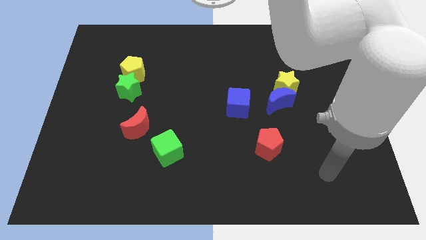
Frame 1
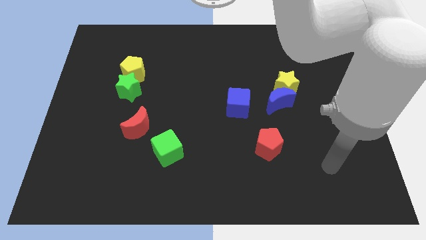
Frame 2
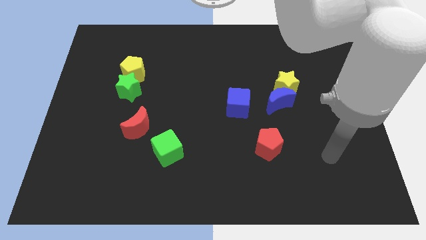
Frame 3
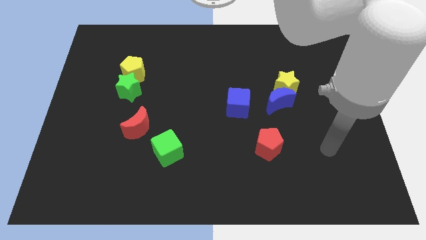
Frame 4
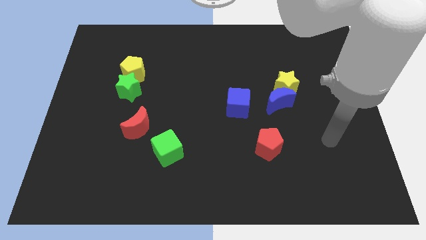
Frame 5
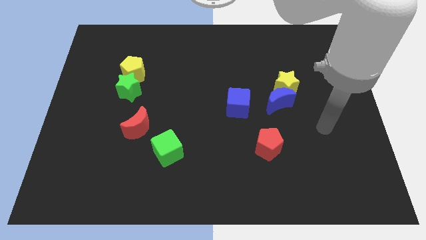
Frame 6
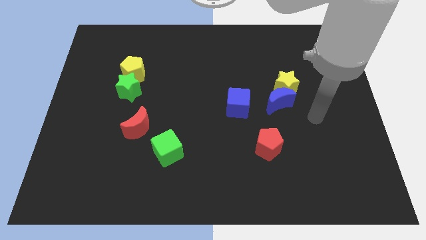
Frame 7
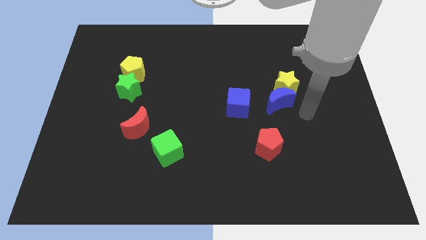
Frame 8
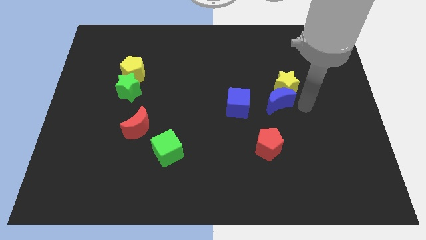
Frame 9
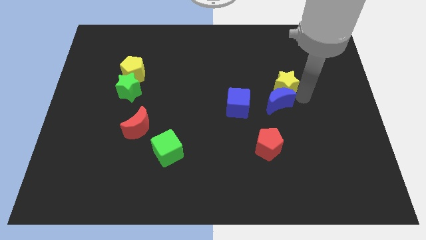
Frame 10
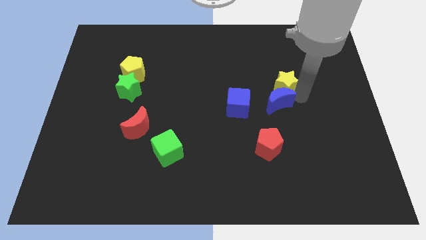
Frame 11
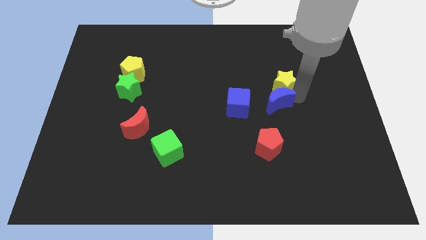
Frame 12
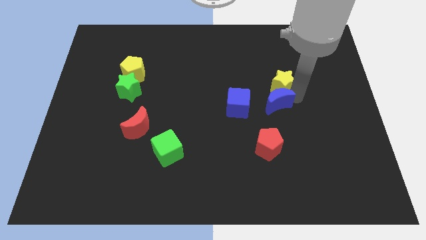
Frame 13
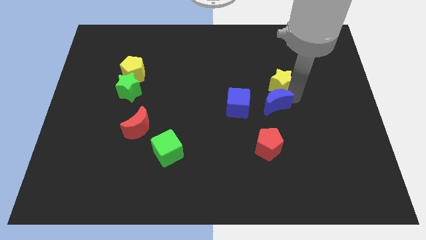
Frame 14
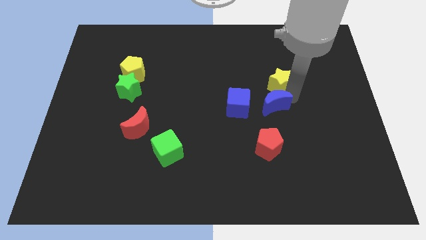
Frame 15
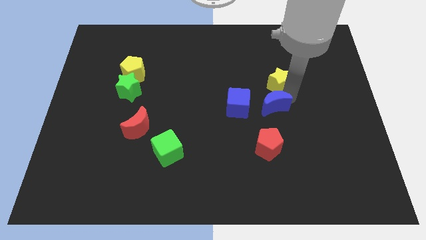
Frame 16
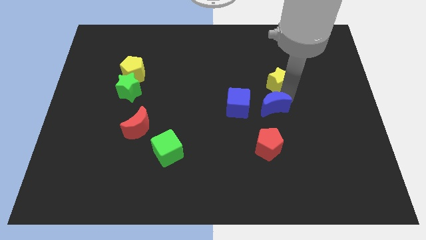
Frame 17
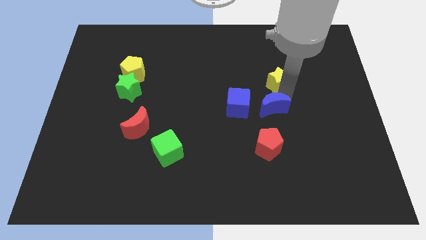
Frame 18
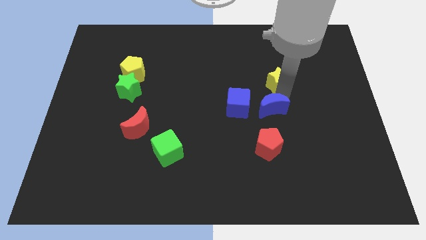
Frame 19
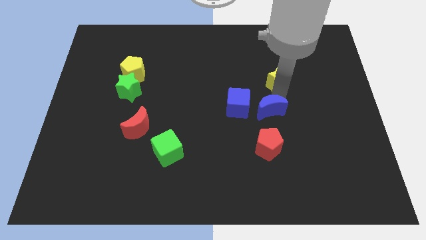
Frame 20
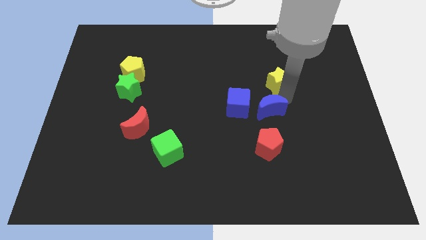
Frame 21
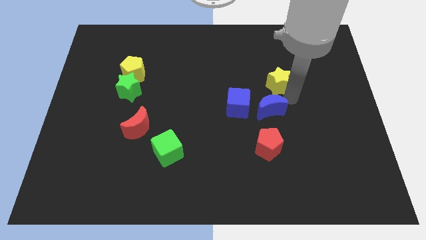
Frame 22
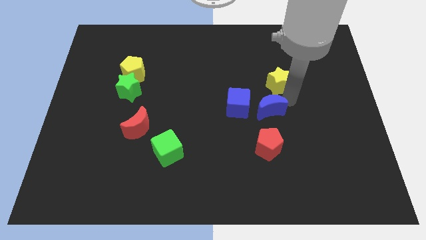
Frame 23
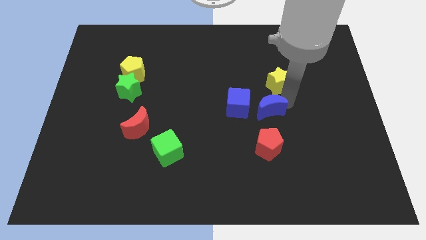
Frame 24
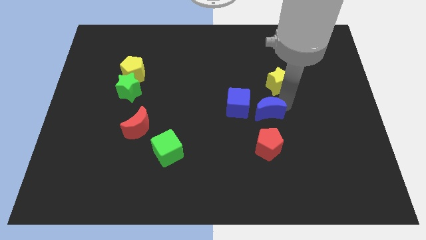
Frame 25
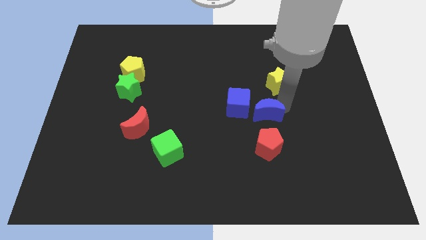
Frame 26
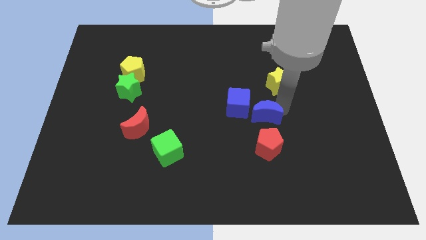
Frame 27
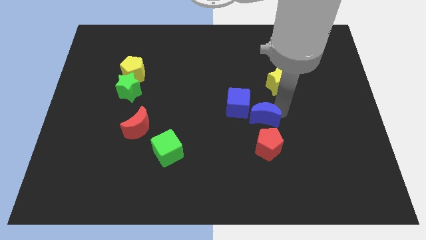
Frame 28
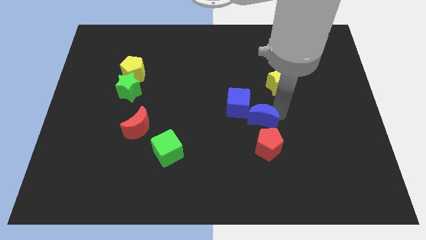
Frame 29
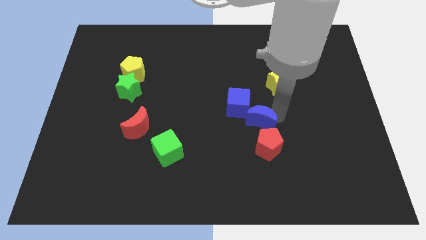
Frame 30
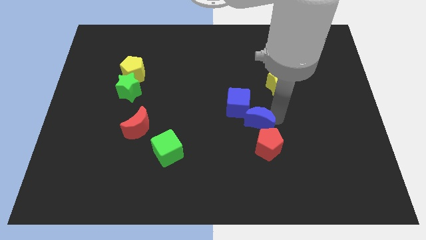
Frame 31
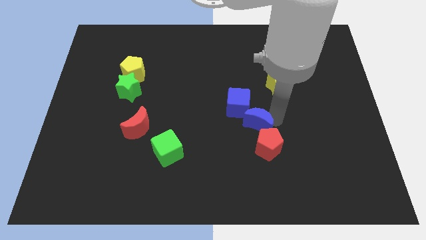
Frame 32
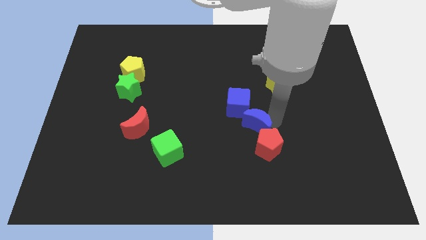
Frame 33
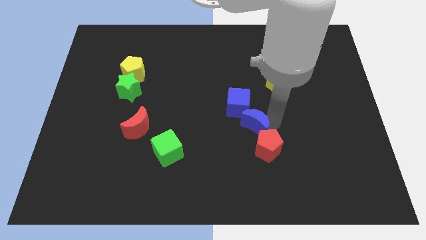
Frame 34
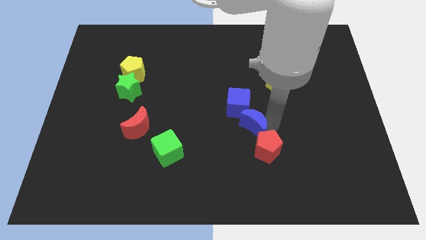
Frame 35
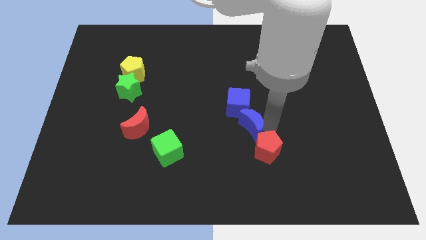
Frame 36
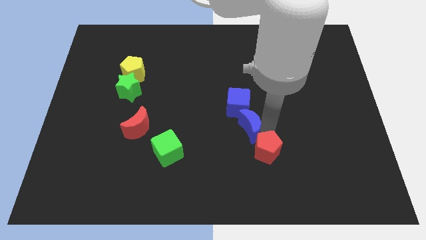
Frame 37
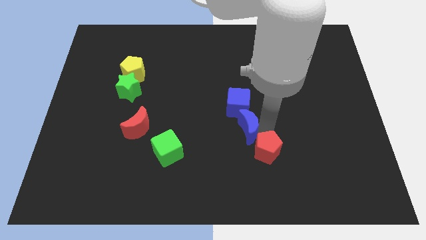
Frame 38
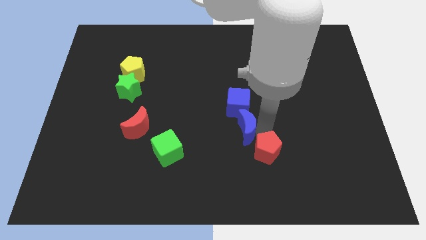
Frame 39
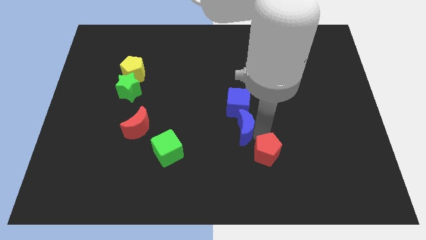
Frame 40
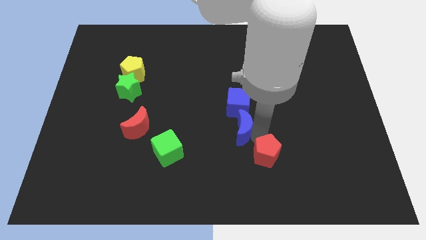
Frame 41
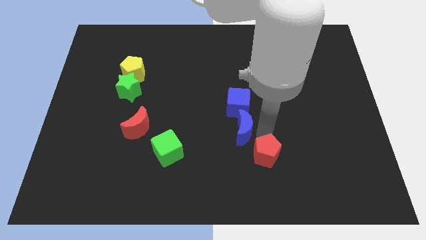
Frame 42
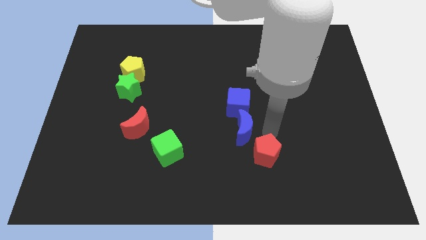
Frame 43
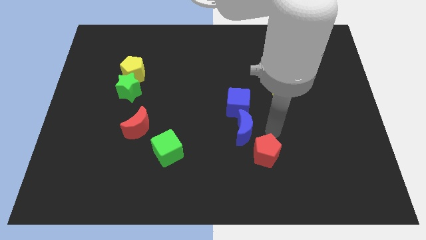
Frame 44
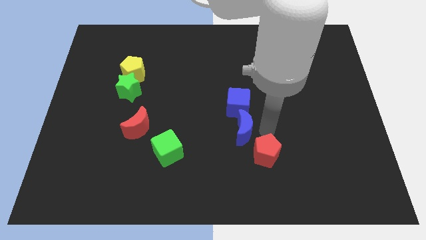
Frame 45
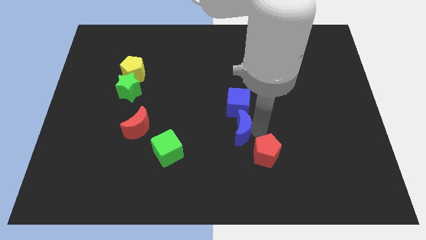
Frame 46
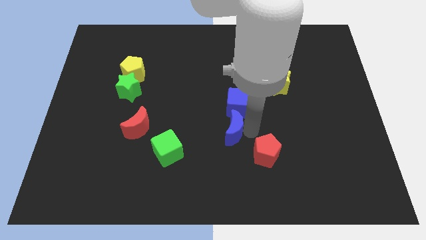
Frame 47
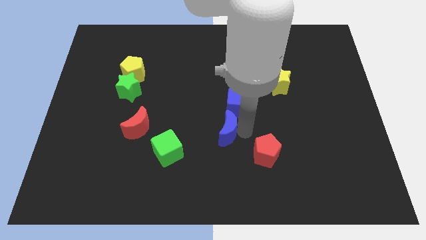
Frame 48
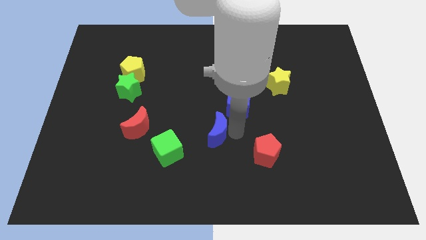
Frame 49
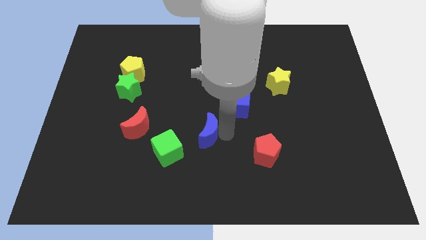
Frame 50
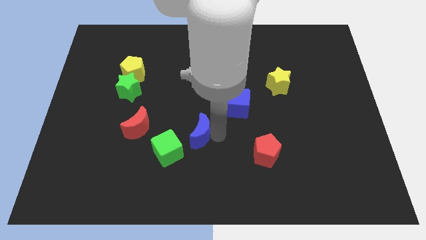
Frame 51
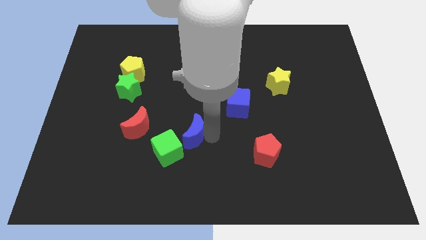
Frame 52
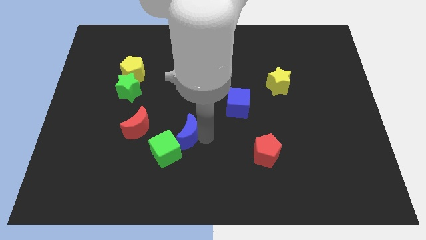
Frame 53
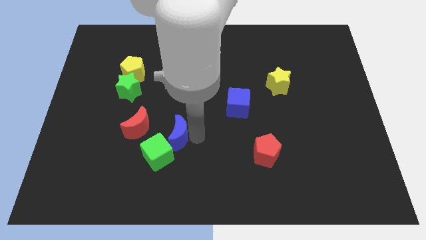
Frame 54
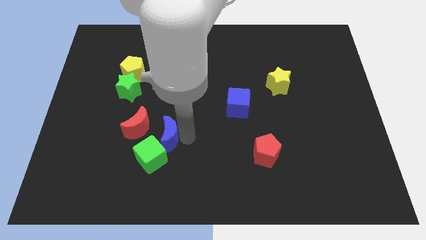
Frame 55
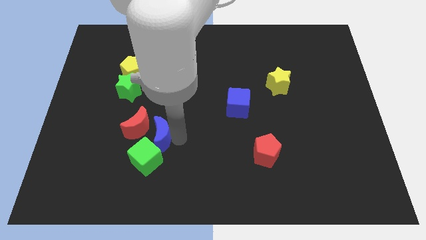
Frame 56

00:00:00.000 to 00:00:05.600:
put the blue moon next to the red moon

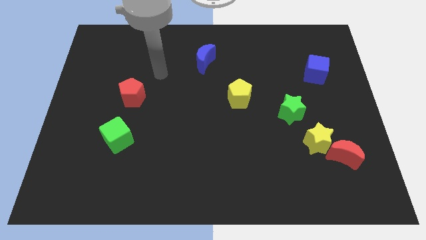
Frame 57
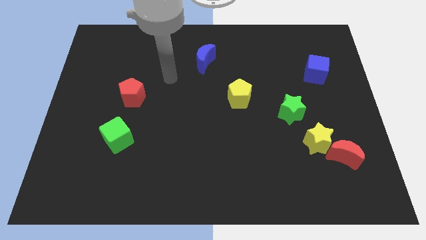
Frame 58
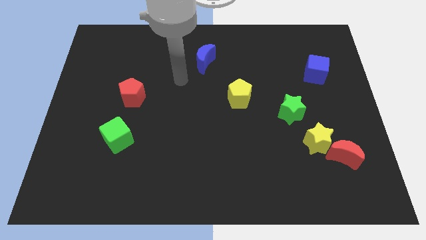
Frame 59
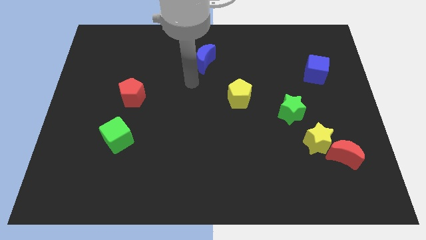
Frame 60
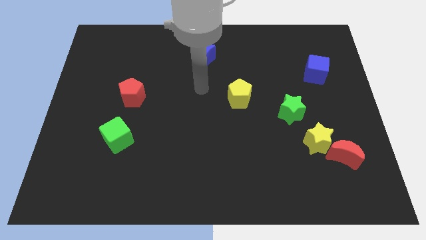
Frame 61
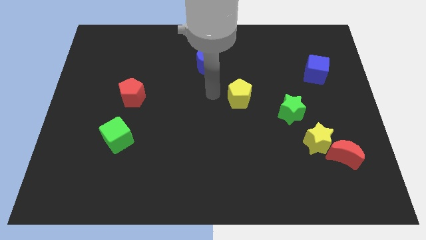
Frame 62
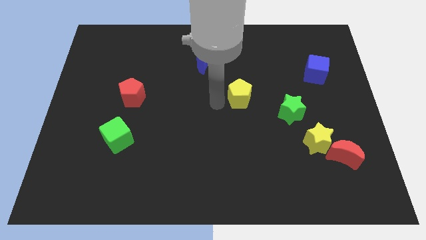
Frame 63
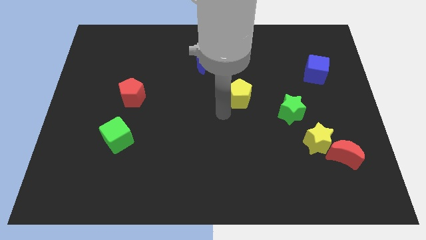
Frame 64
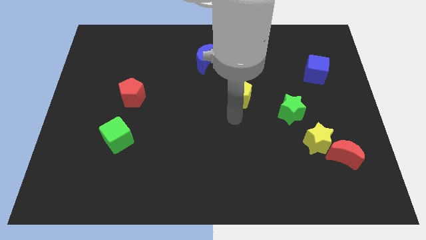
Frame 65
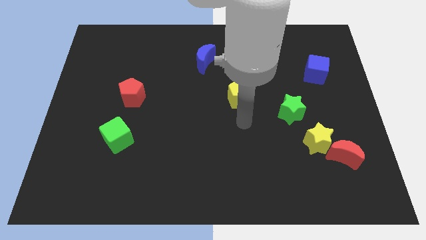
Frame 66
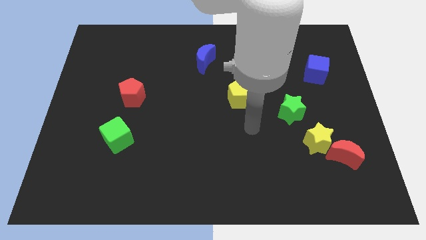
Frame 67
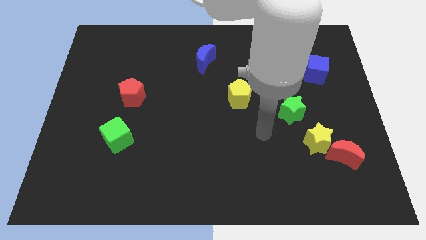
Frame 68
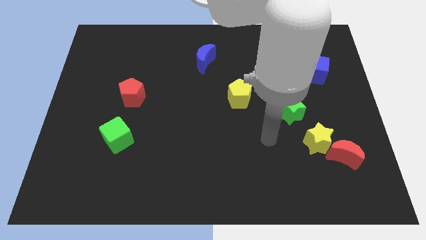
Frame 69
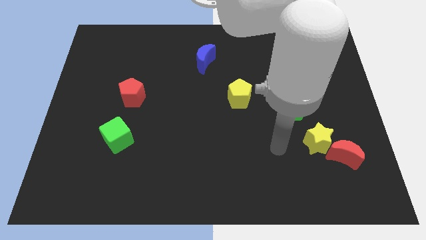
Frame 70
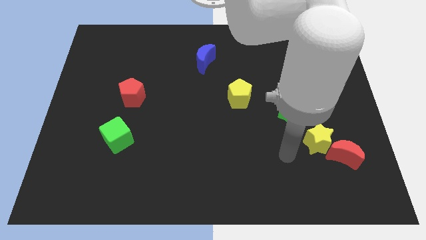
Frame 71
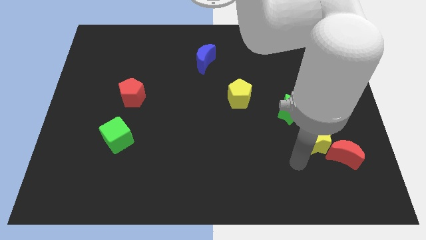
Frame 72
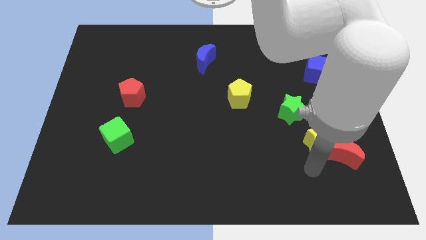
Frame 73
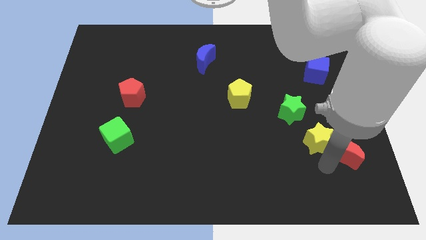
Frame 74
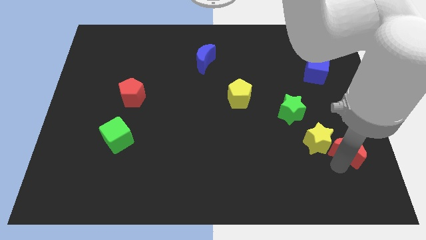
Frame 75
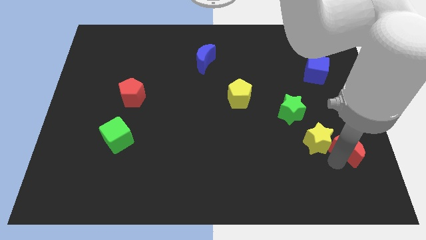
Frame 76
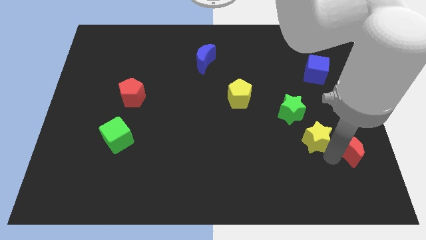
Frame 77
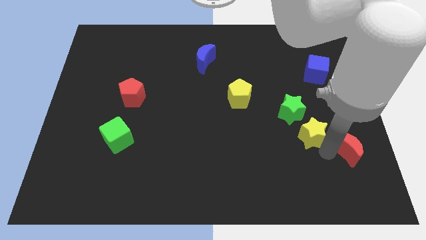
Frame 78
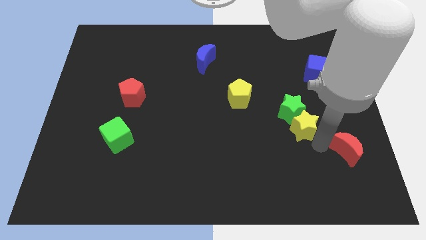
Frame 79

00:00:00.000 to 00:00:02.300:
push the yellow star close to the green star
